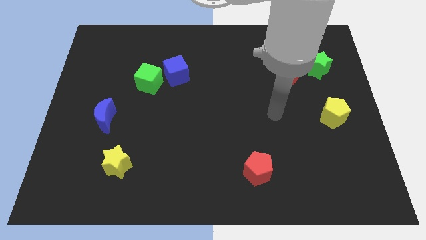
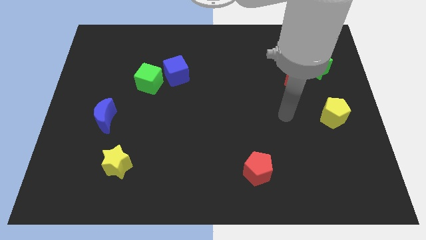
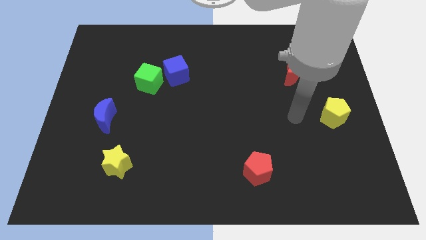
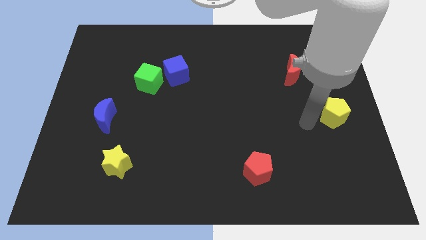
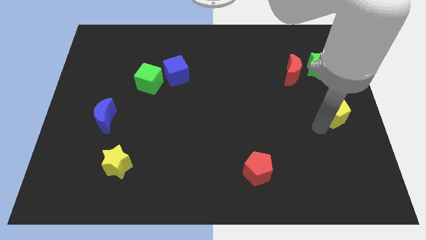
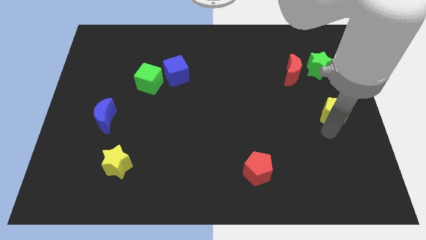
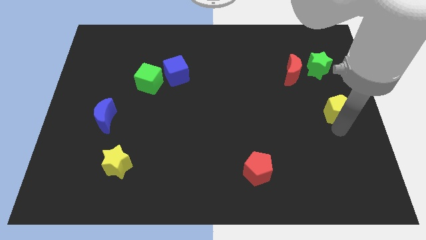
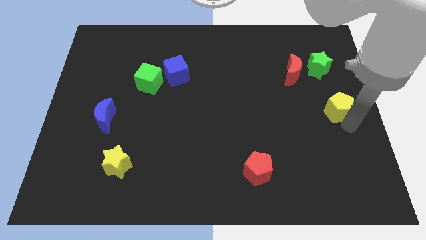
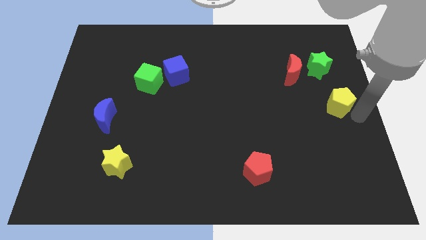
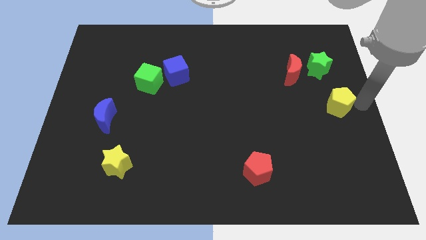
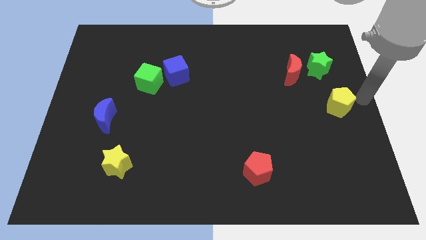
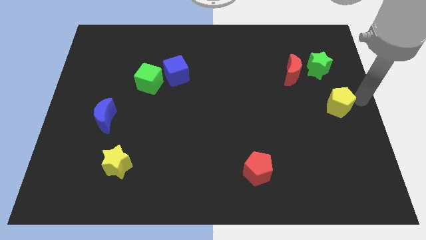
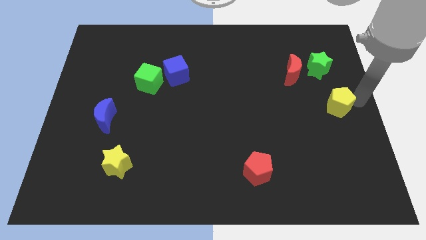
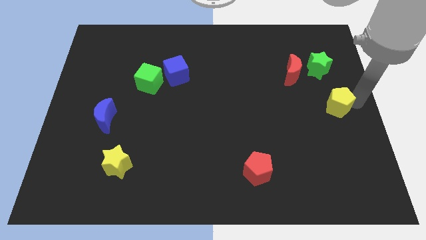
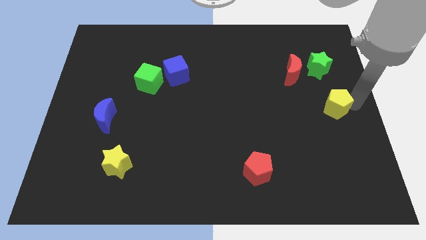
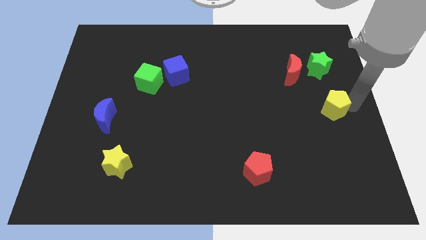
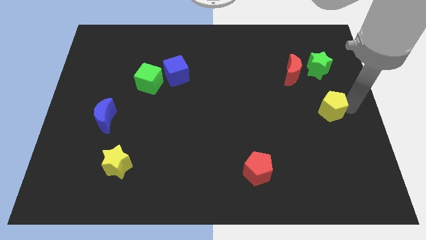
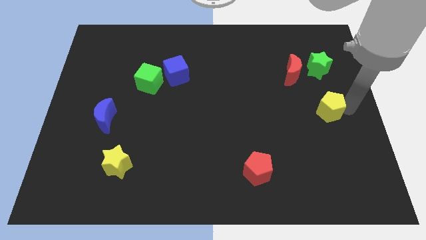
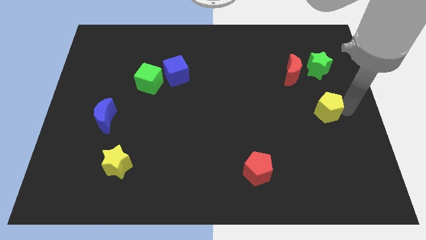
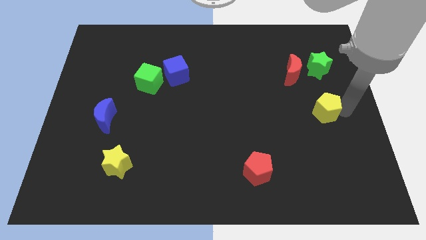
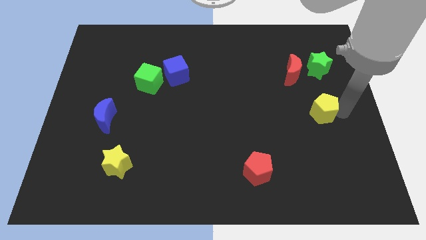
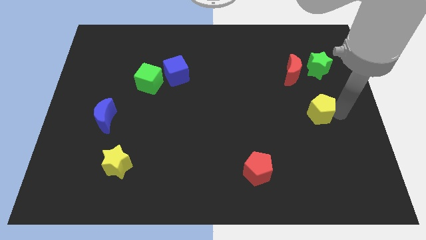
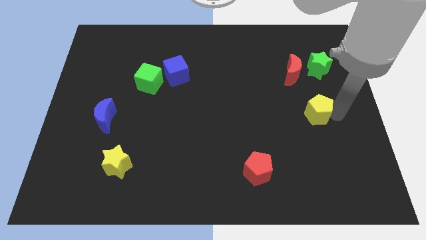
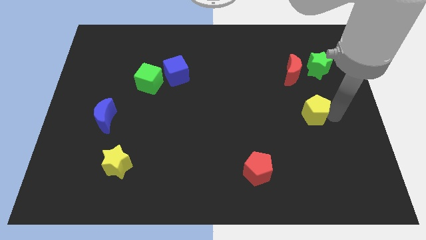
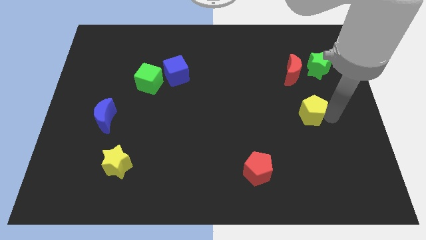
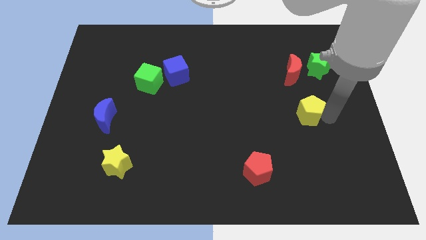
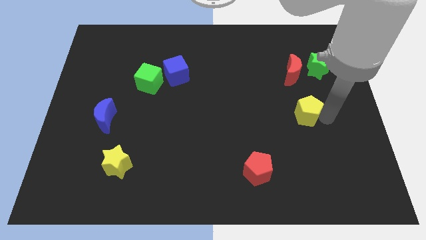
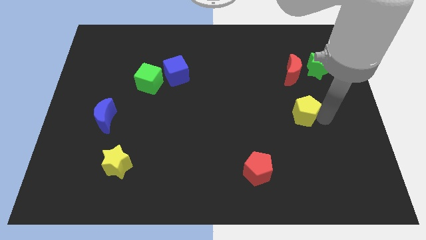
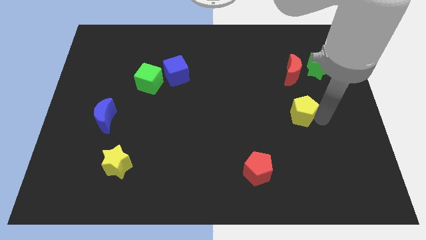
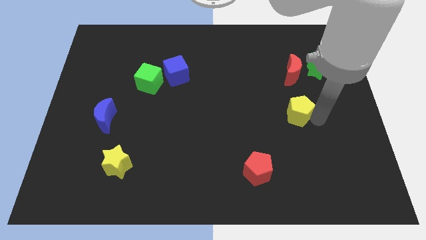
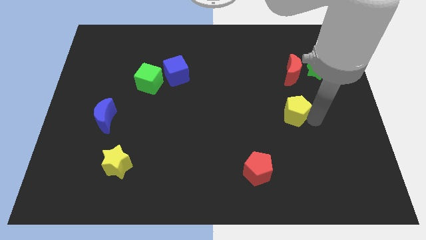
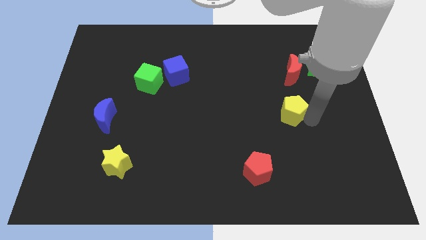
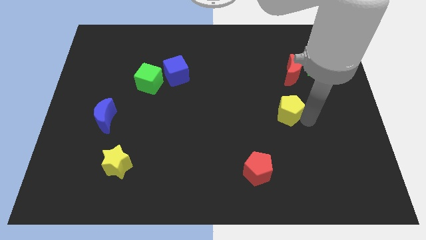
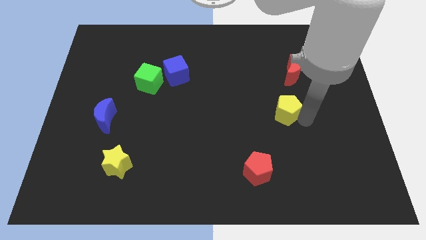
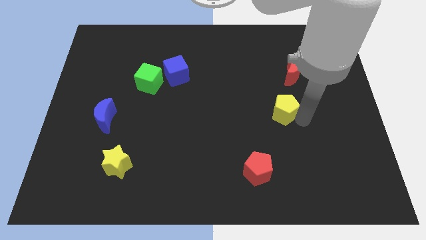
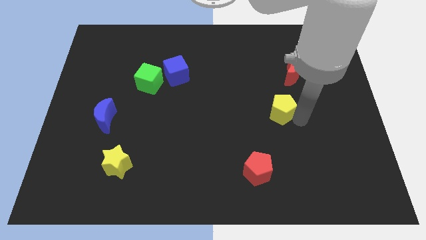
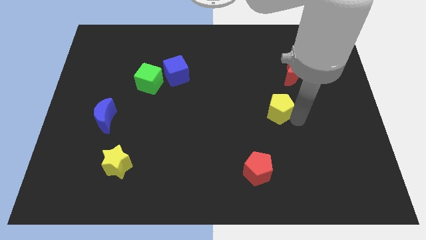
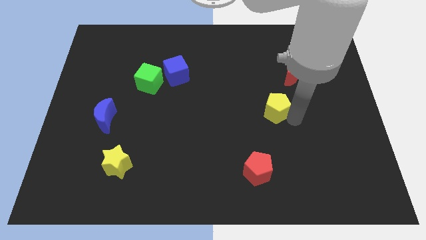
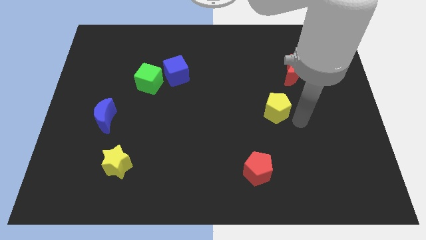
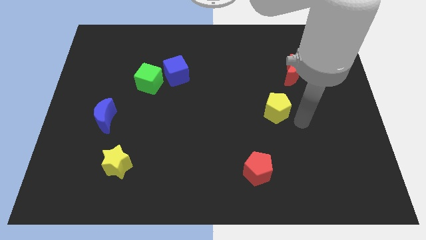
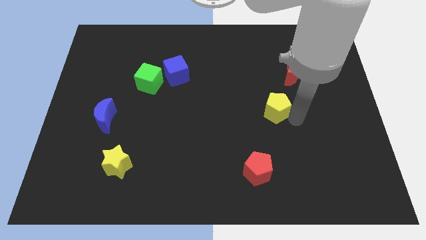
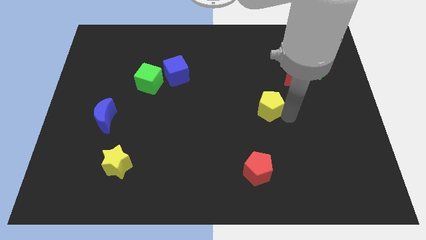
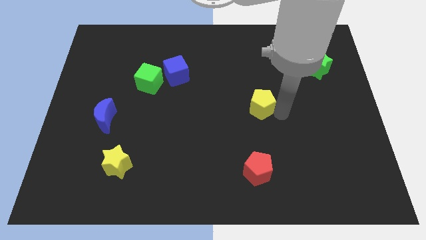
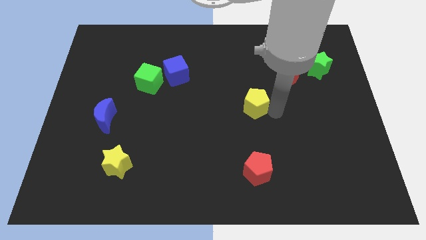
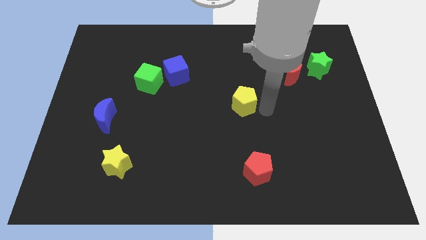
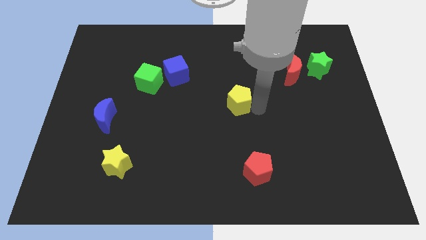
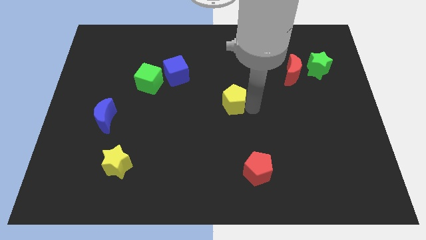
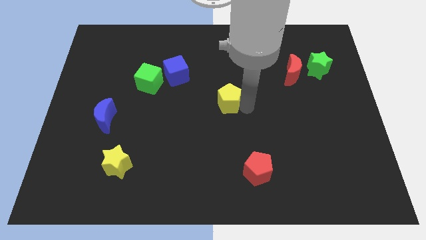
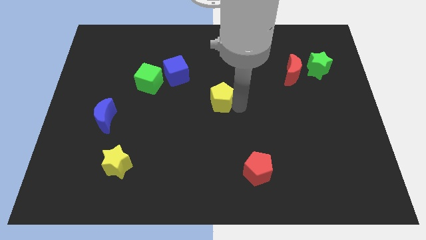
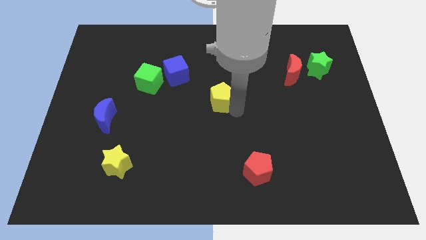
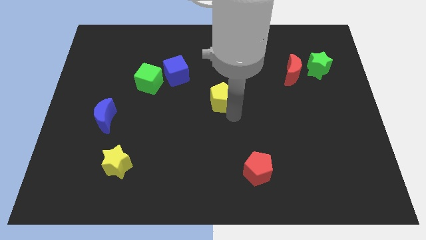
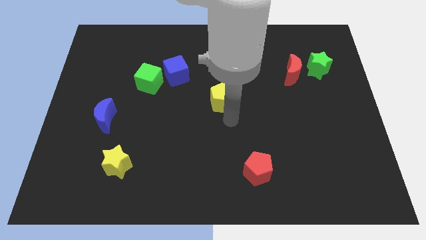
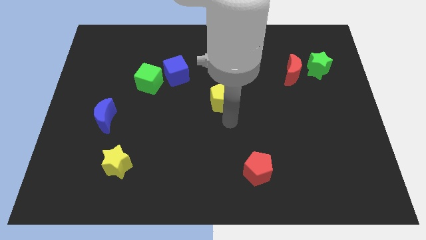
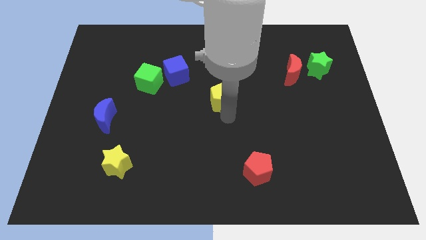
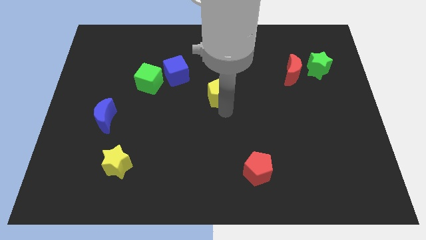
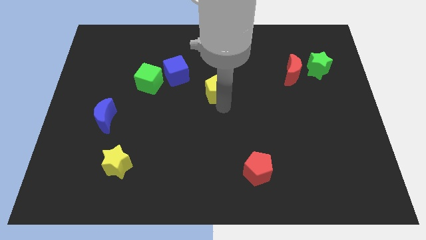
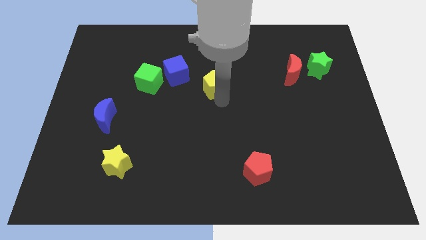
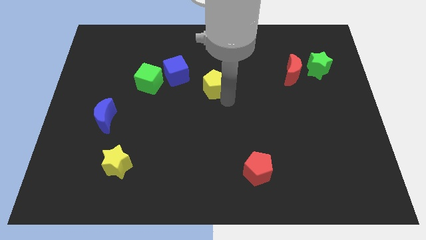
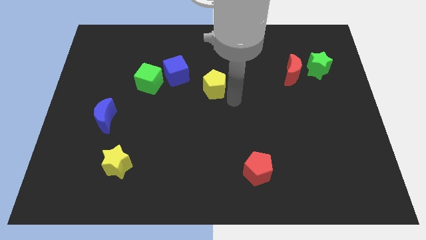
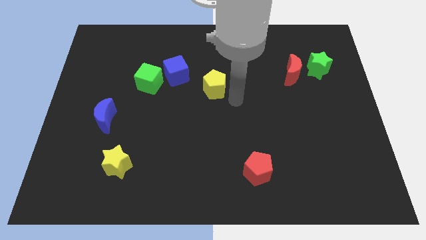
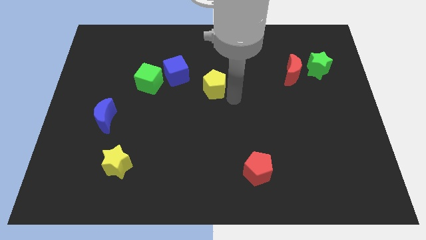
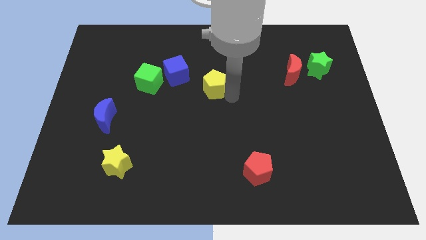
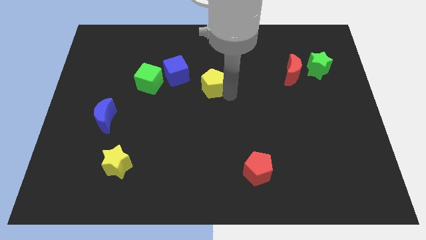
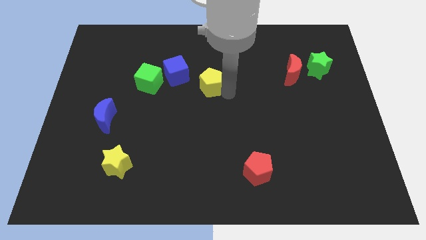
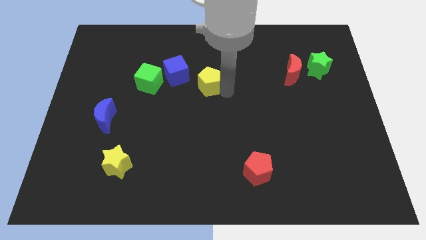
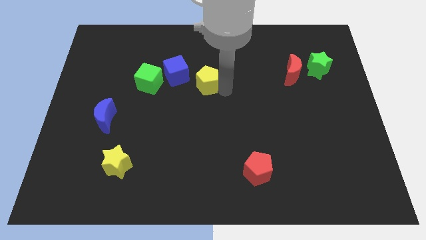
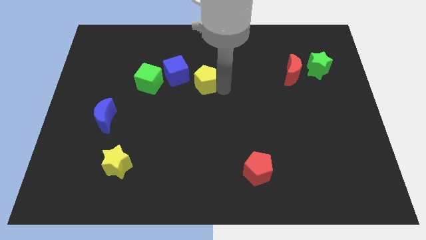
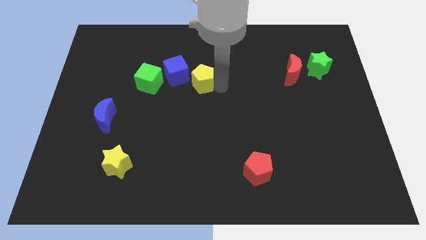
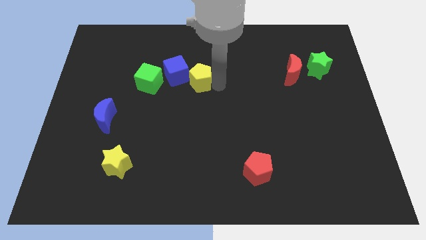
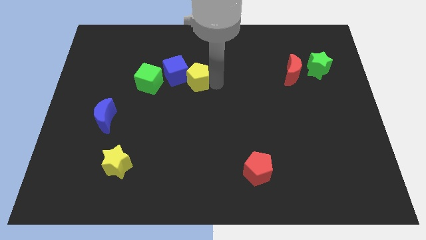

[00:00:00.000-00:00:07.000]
push the yellow pentagon towards the blue cube

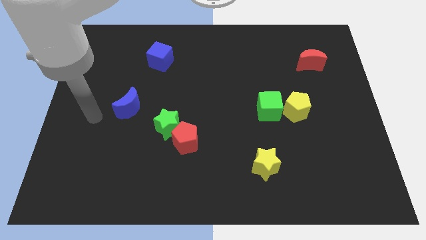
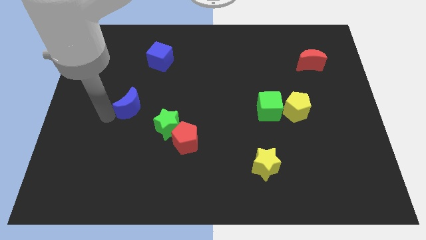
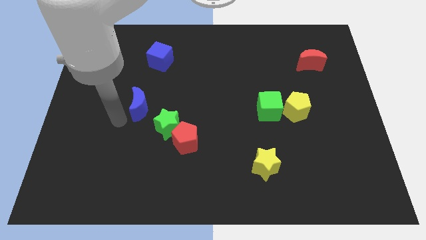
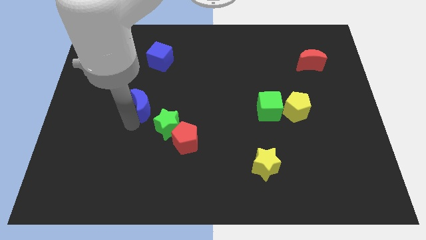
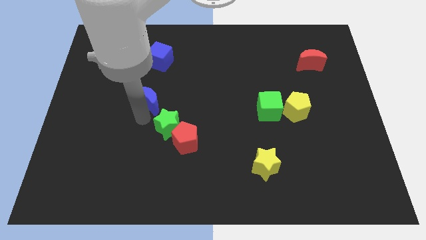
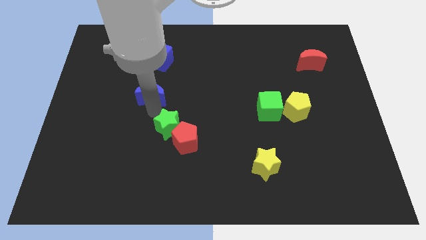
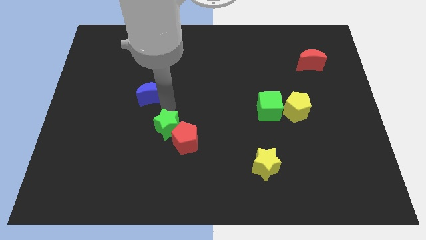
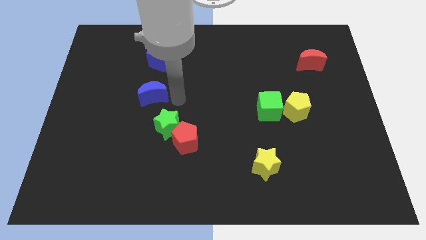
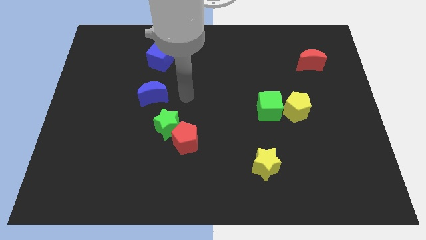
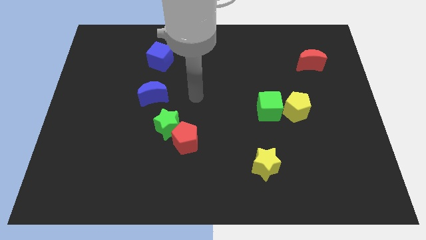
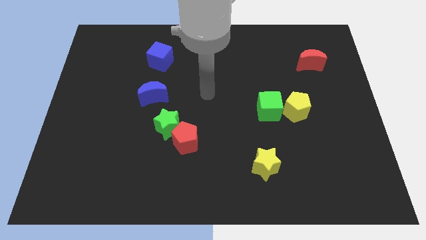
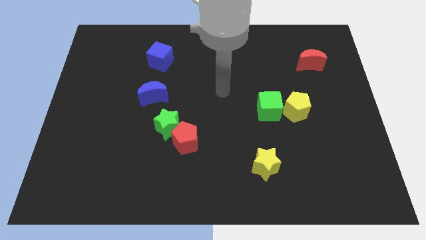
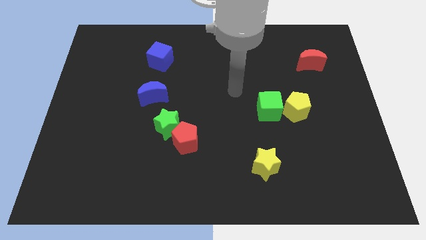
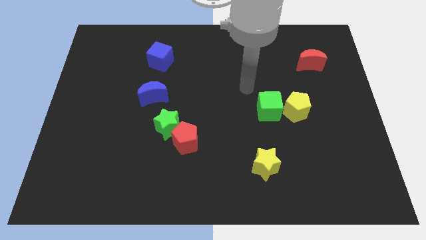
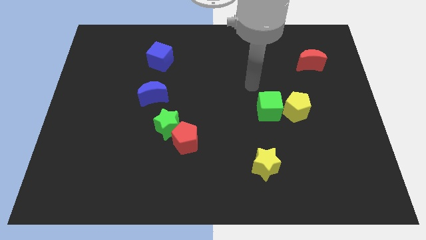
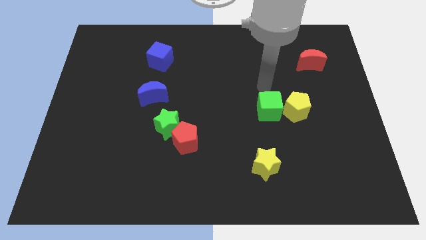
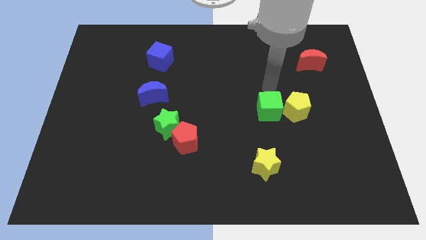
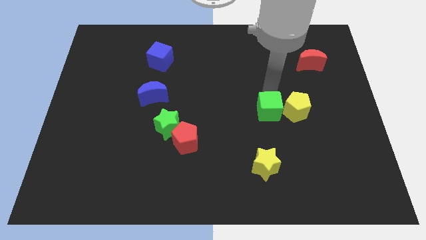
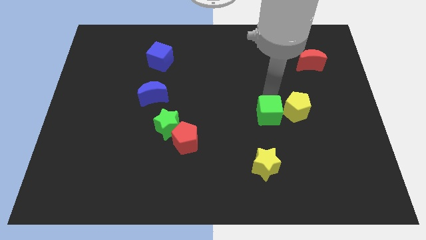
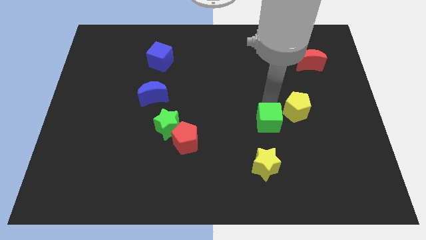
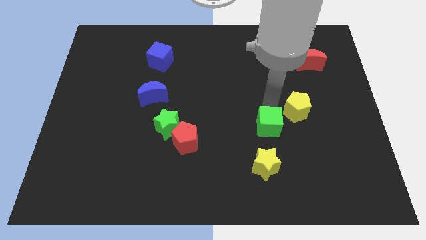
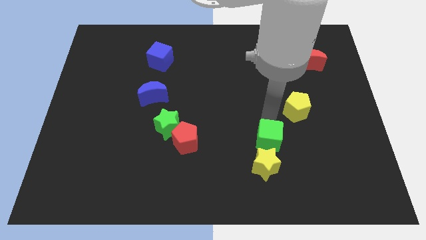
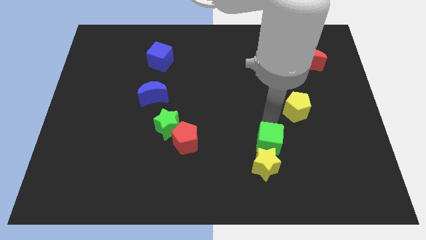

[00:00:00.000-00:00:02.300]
push the green cube close to the yellow star
